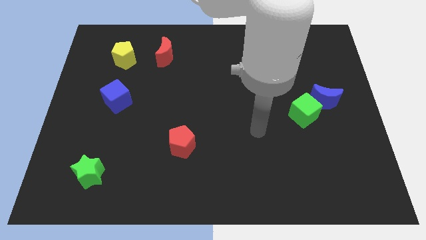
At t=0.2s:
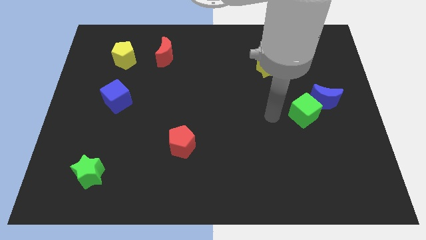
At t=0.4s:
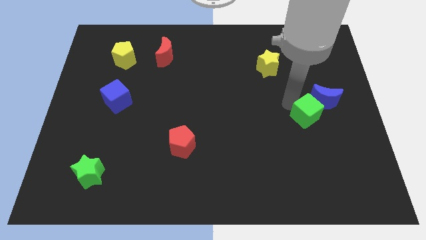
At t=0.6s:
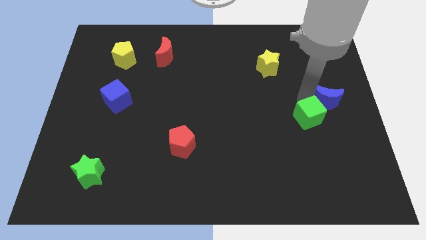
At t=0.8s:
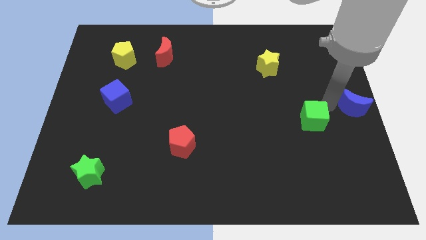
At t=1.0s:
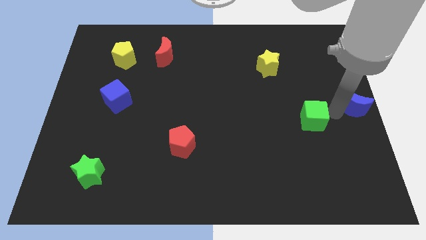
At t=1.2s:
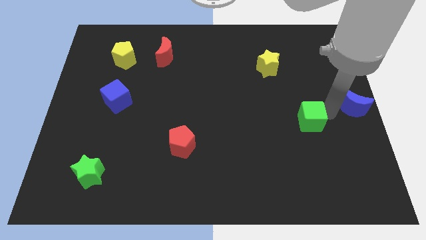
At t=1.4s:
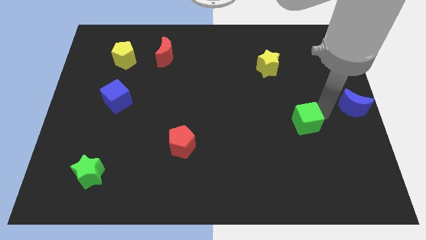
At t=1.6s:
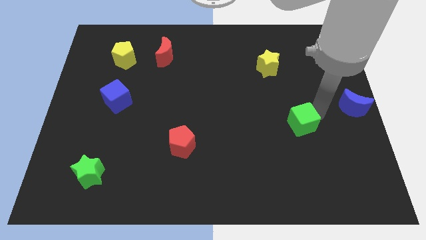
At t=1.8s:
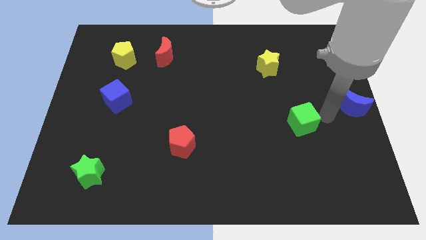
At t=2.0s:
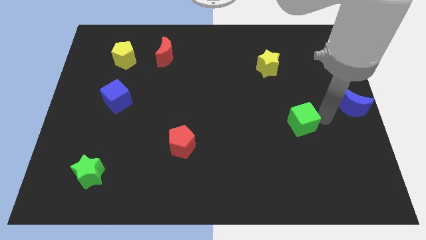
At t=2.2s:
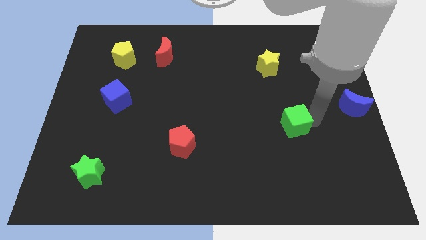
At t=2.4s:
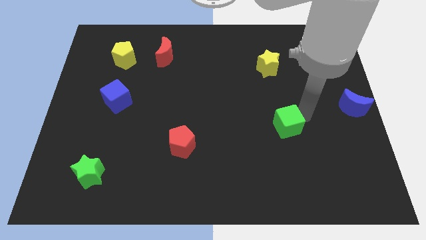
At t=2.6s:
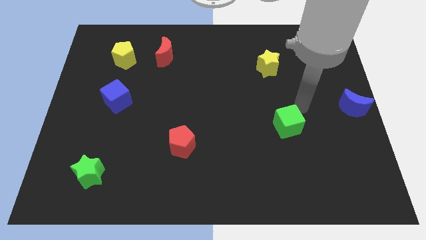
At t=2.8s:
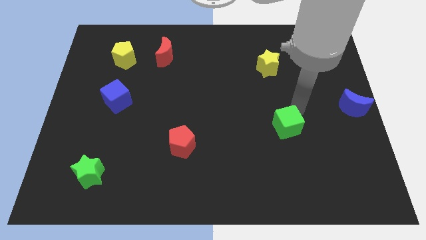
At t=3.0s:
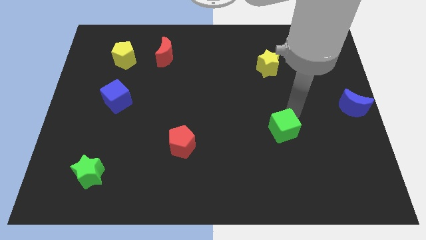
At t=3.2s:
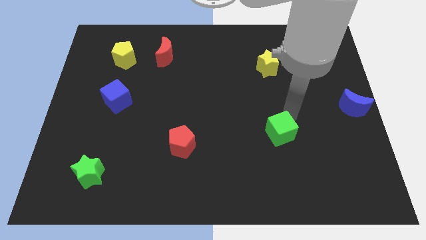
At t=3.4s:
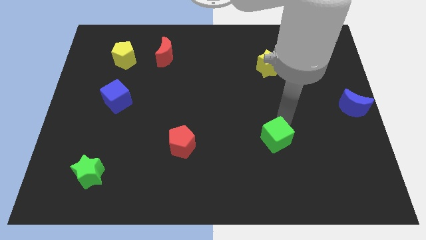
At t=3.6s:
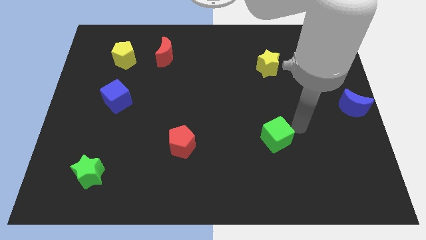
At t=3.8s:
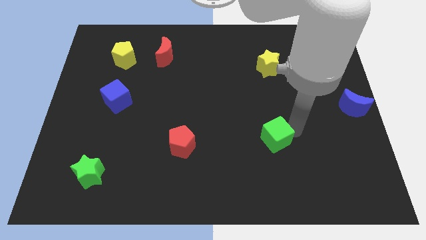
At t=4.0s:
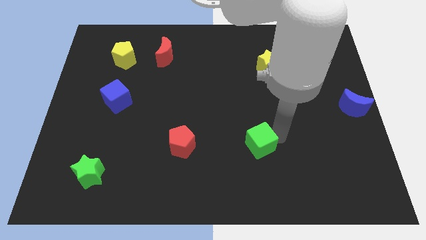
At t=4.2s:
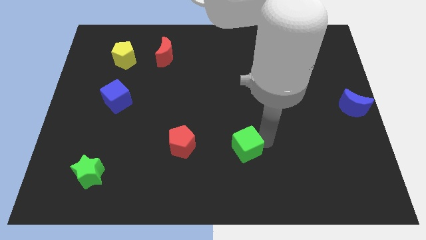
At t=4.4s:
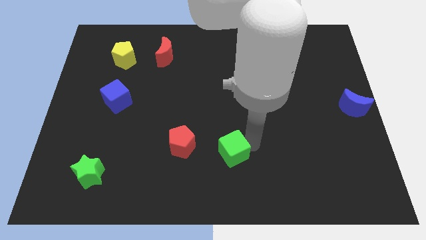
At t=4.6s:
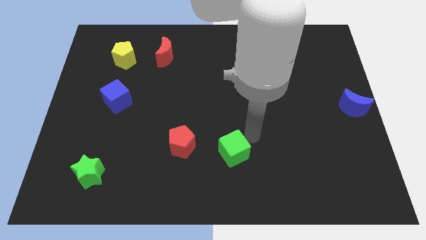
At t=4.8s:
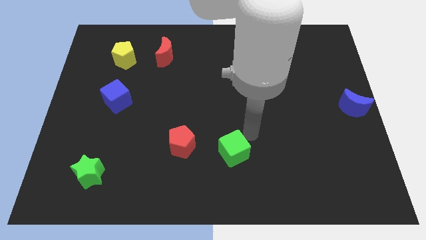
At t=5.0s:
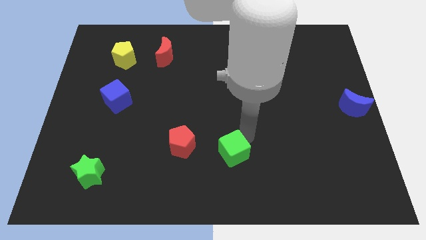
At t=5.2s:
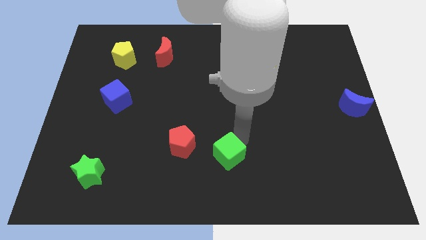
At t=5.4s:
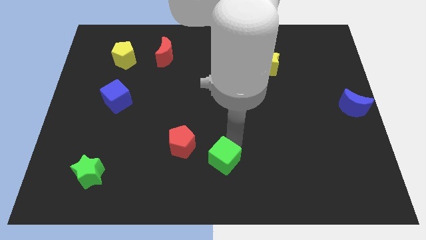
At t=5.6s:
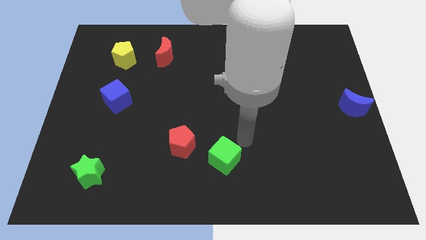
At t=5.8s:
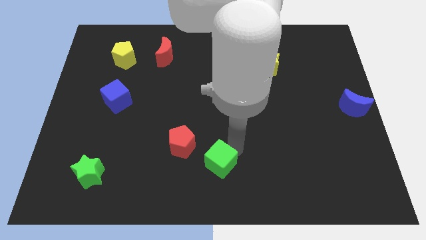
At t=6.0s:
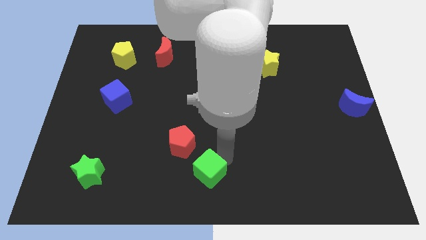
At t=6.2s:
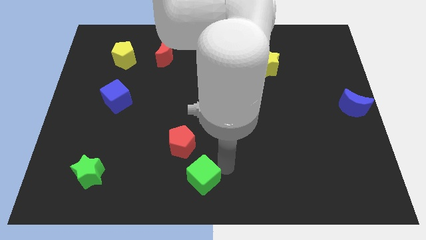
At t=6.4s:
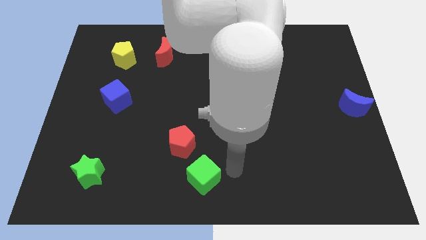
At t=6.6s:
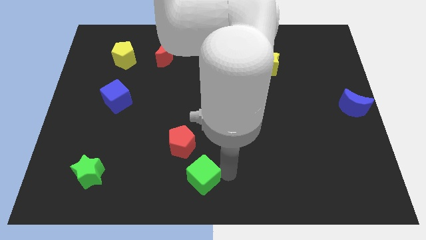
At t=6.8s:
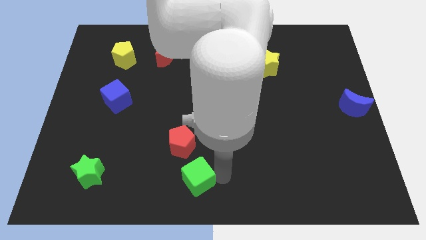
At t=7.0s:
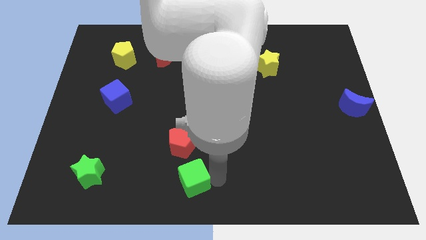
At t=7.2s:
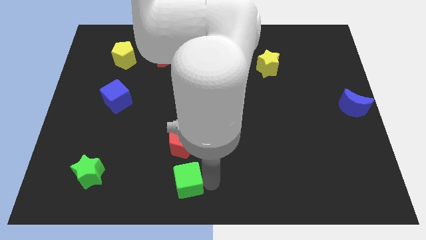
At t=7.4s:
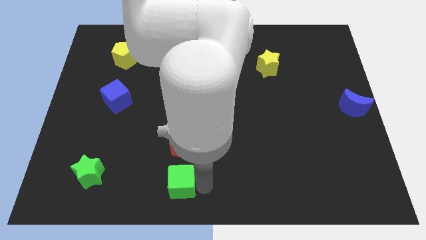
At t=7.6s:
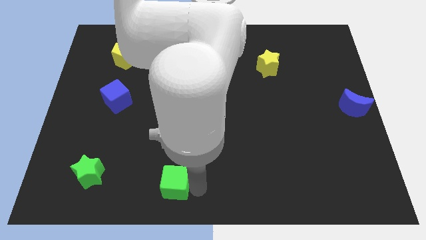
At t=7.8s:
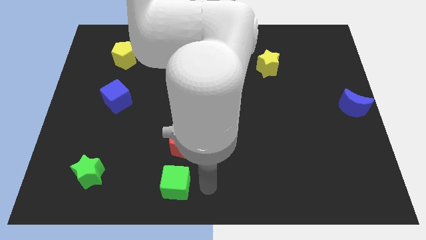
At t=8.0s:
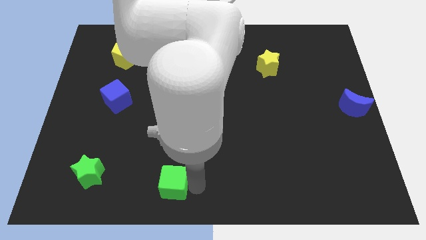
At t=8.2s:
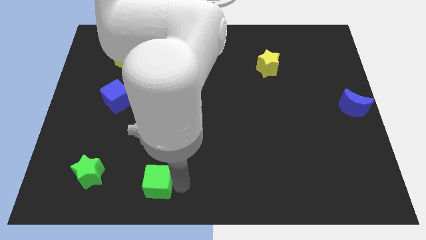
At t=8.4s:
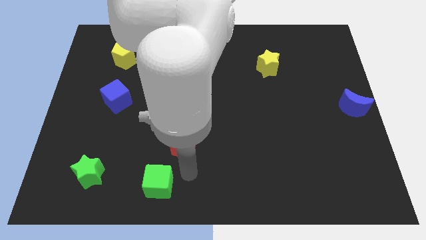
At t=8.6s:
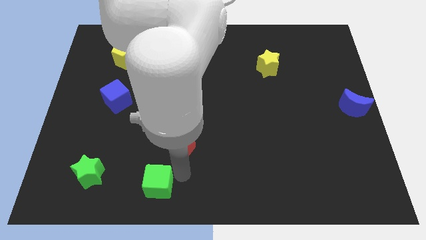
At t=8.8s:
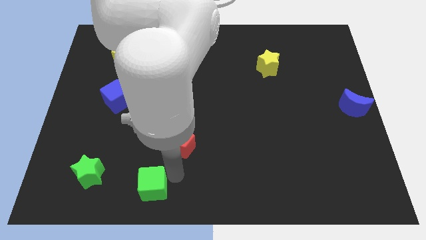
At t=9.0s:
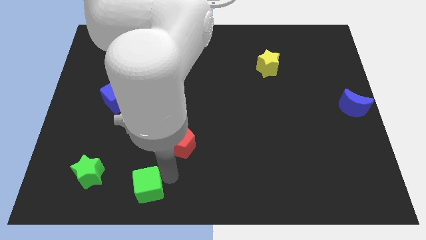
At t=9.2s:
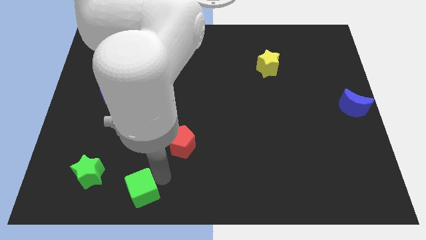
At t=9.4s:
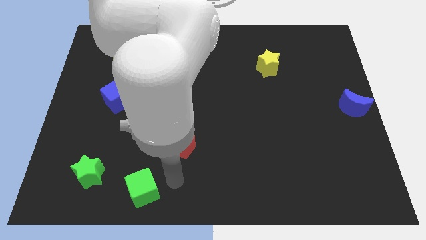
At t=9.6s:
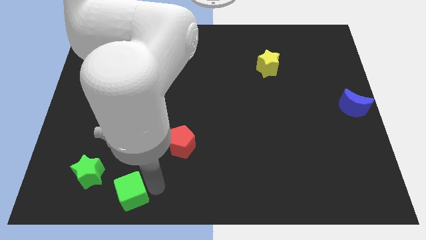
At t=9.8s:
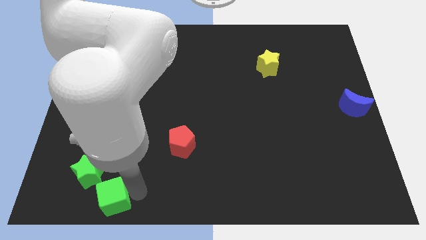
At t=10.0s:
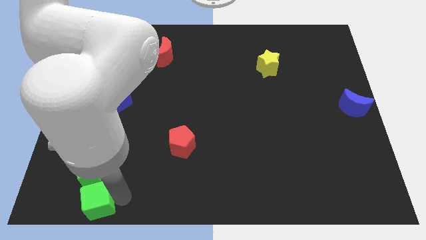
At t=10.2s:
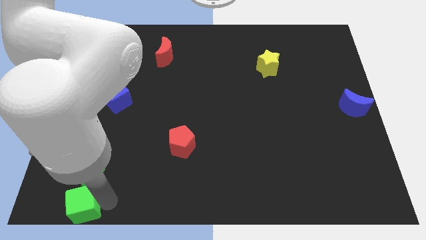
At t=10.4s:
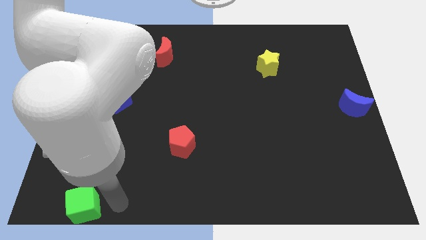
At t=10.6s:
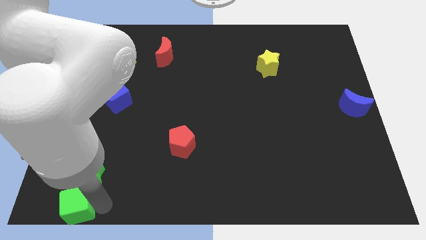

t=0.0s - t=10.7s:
put the green cube to the bottom left corner
